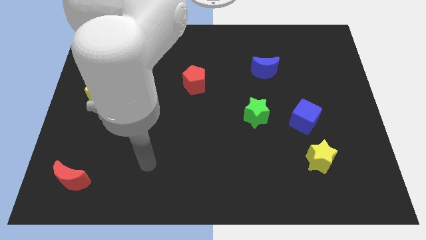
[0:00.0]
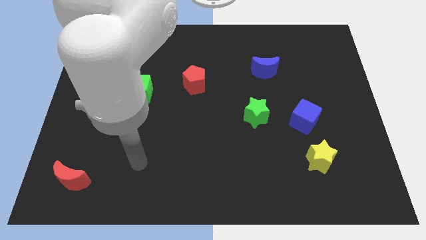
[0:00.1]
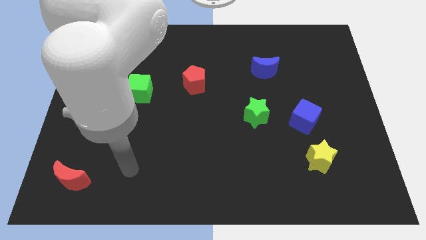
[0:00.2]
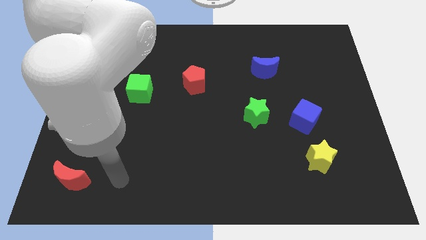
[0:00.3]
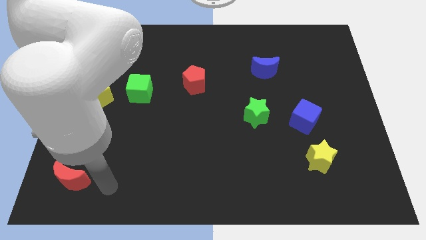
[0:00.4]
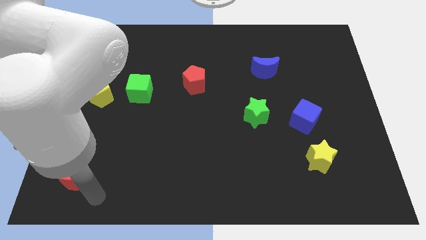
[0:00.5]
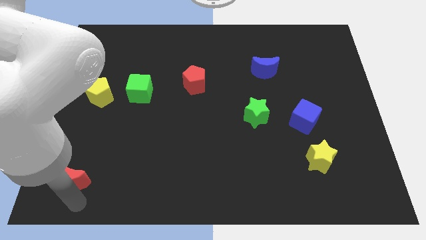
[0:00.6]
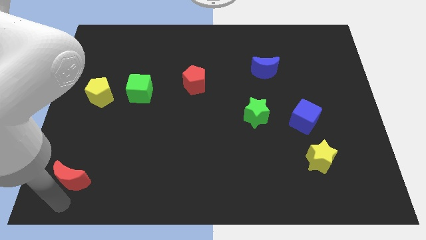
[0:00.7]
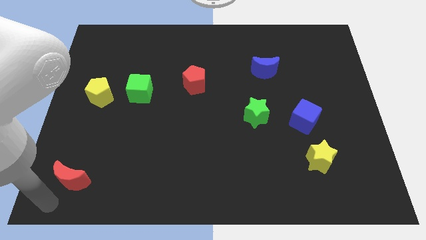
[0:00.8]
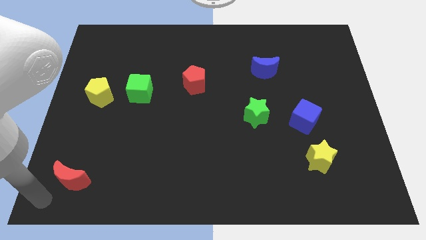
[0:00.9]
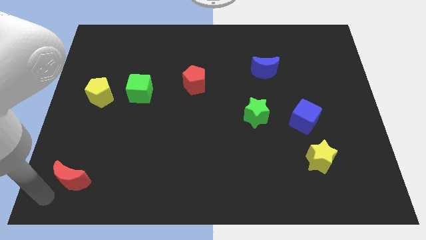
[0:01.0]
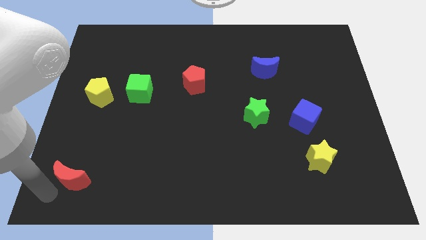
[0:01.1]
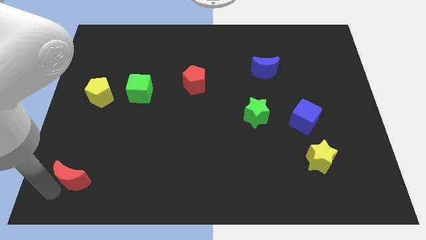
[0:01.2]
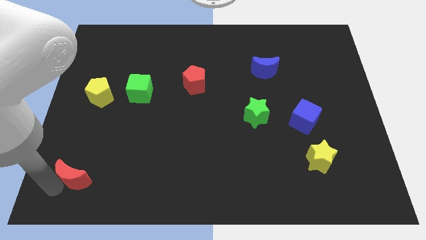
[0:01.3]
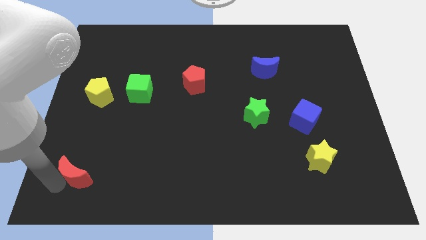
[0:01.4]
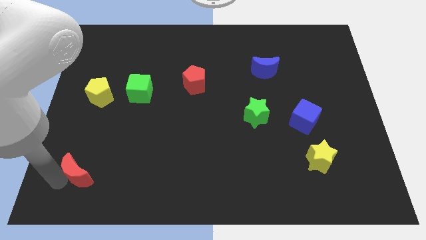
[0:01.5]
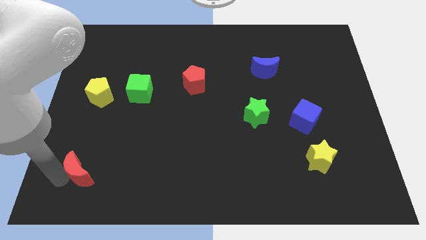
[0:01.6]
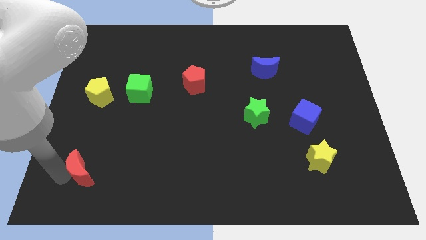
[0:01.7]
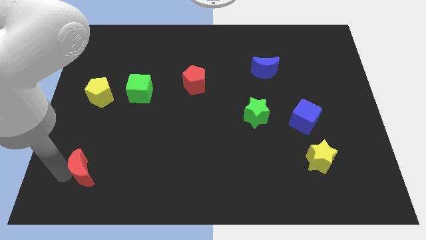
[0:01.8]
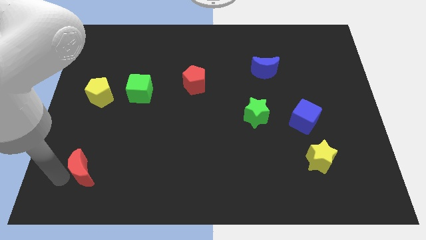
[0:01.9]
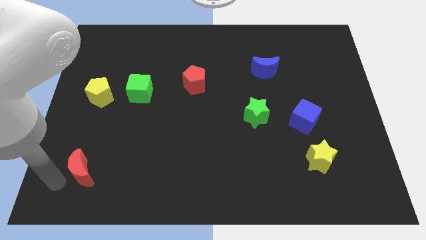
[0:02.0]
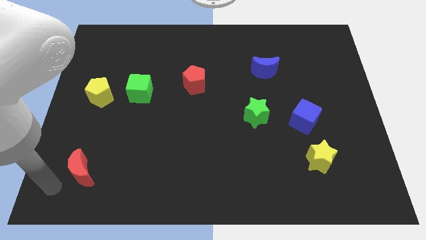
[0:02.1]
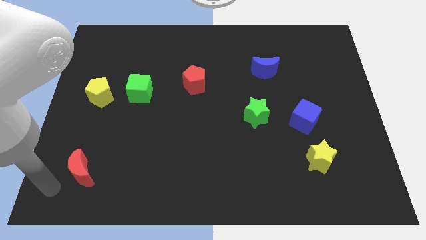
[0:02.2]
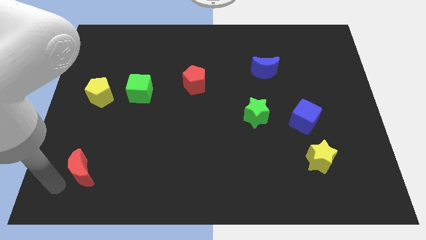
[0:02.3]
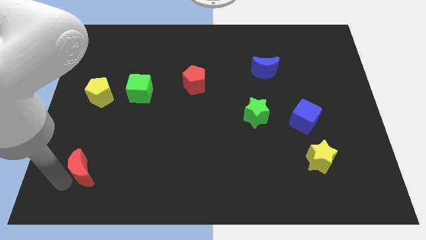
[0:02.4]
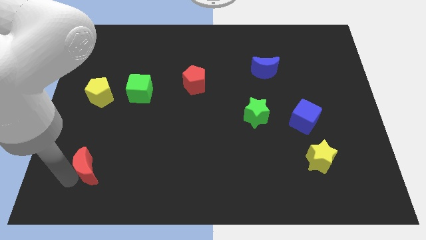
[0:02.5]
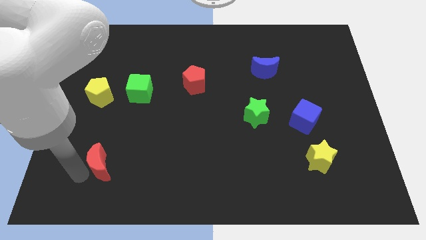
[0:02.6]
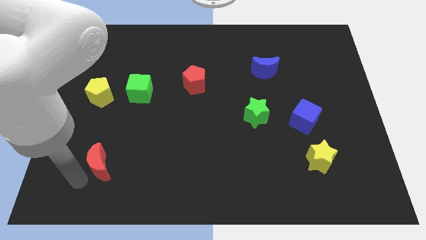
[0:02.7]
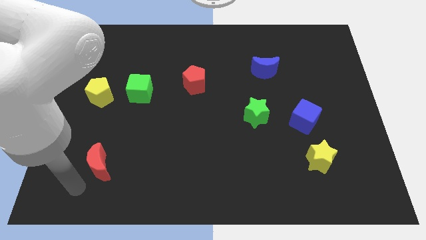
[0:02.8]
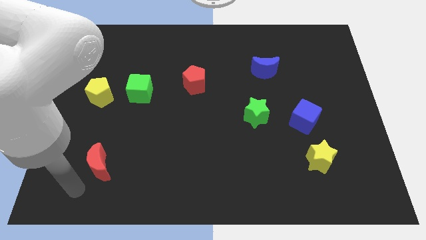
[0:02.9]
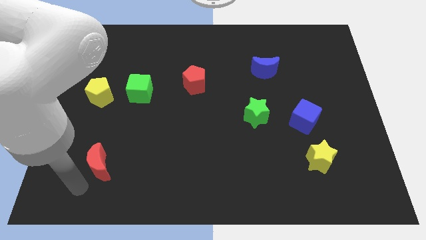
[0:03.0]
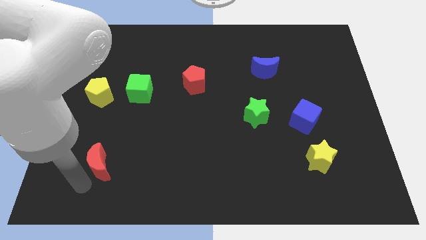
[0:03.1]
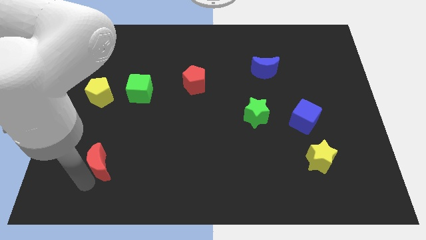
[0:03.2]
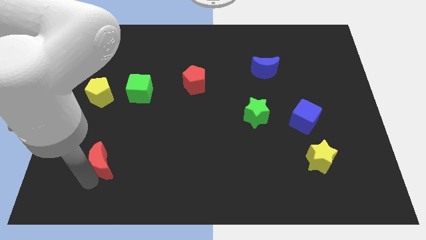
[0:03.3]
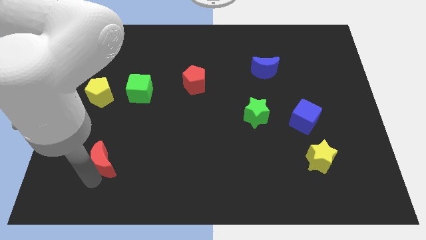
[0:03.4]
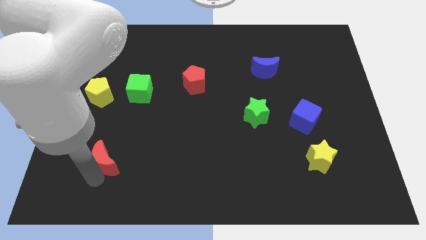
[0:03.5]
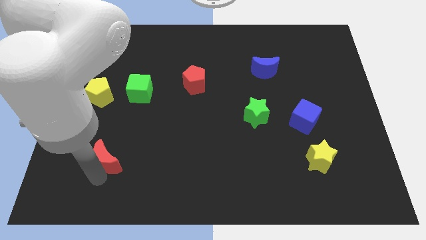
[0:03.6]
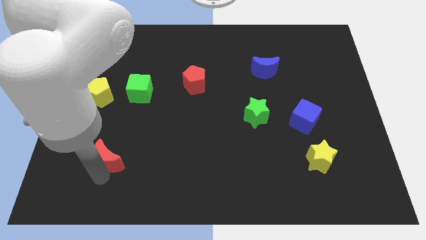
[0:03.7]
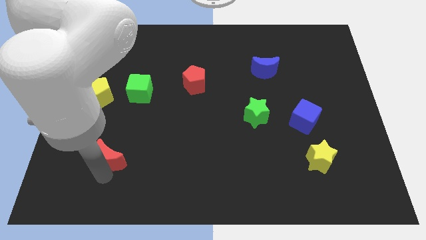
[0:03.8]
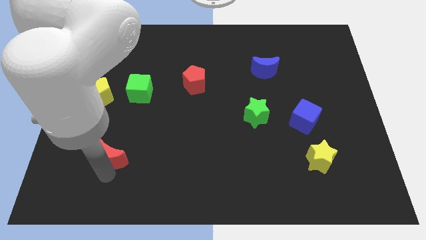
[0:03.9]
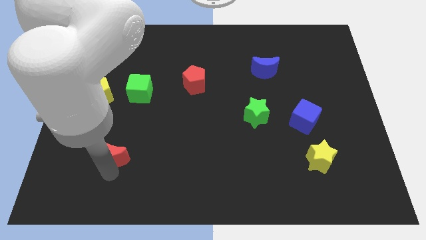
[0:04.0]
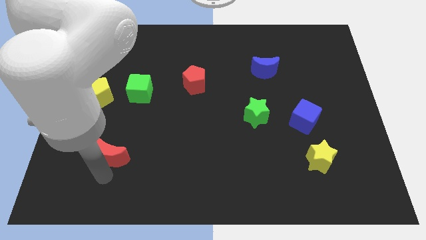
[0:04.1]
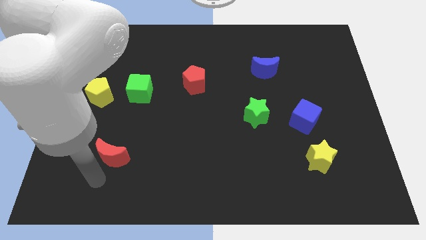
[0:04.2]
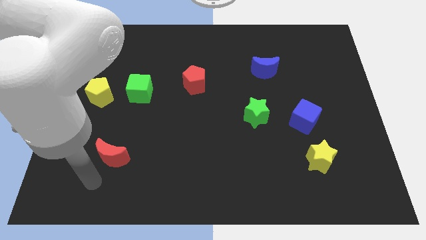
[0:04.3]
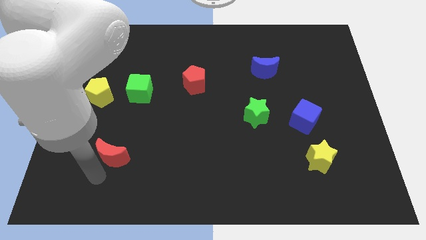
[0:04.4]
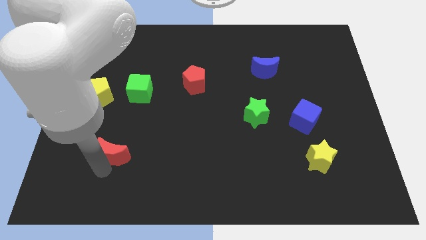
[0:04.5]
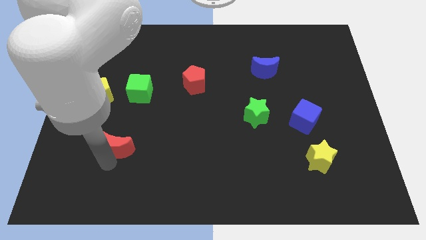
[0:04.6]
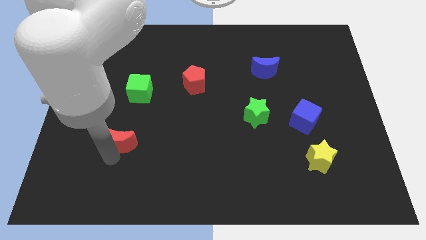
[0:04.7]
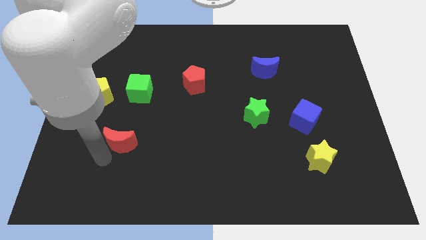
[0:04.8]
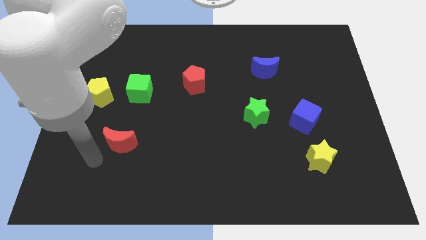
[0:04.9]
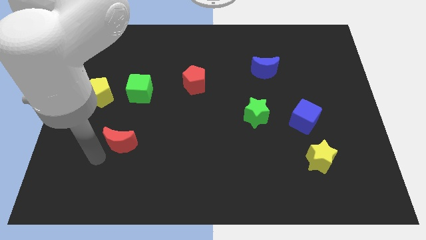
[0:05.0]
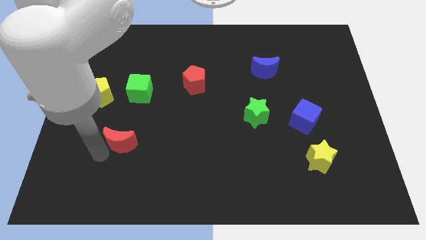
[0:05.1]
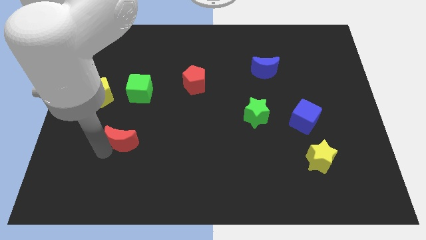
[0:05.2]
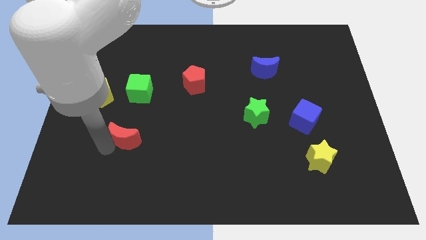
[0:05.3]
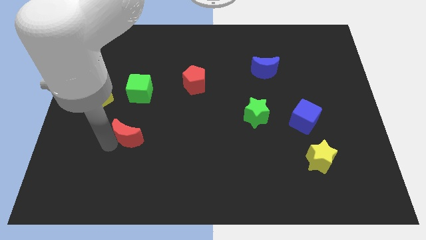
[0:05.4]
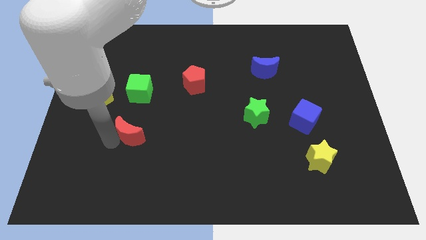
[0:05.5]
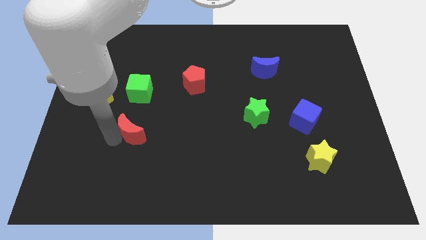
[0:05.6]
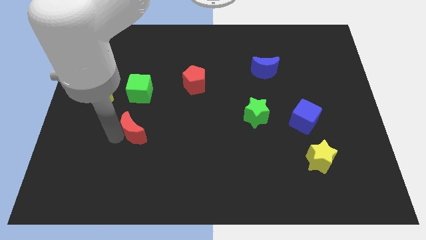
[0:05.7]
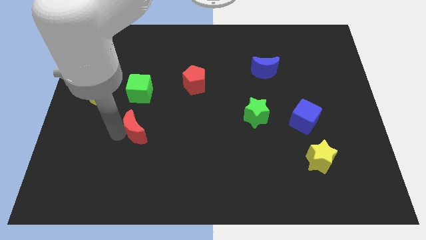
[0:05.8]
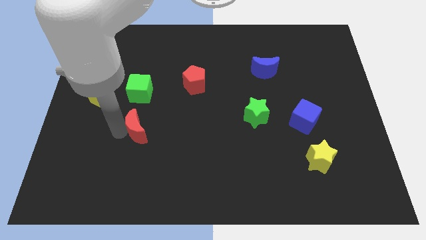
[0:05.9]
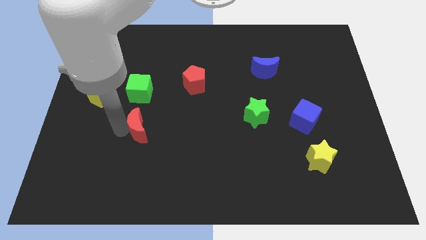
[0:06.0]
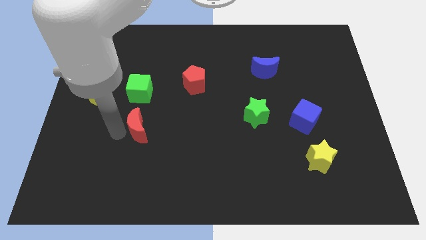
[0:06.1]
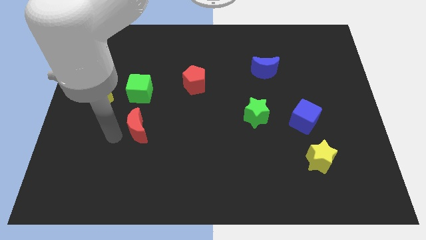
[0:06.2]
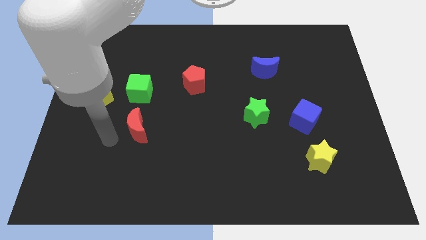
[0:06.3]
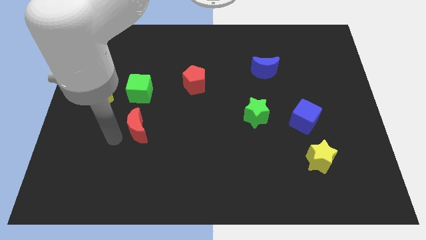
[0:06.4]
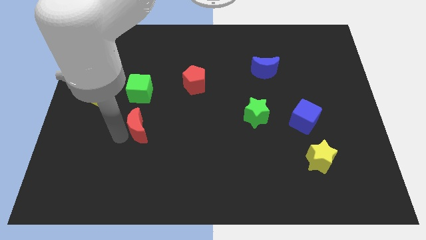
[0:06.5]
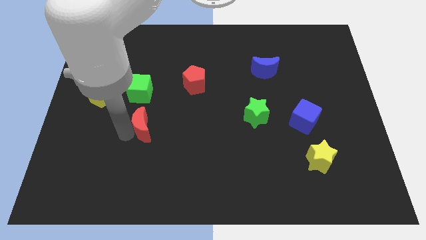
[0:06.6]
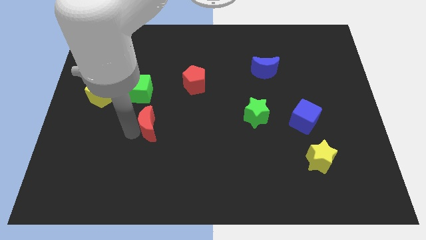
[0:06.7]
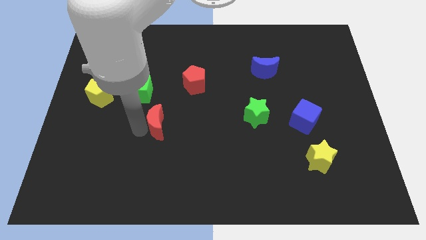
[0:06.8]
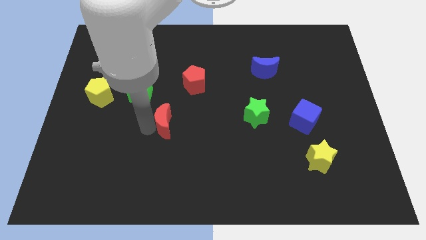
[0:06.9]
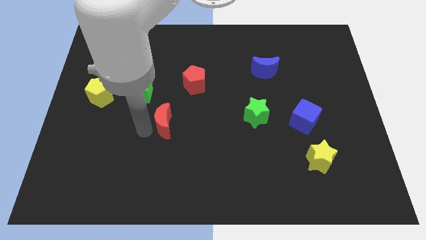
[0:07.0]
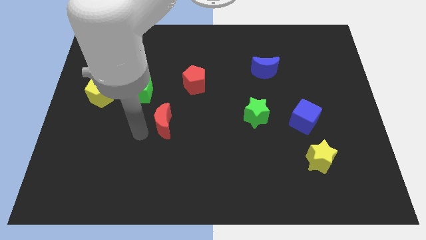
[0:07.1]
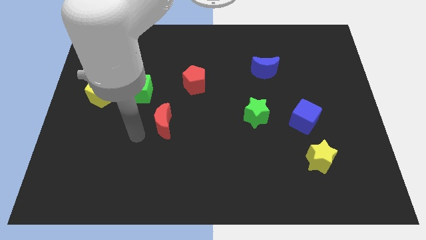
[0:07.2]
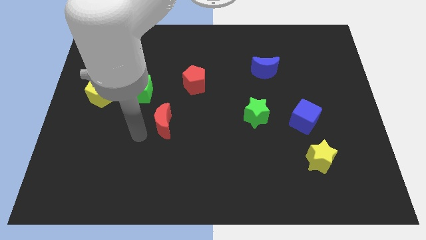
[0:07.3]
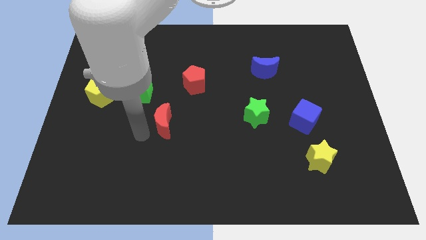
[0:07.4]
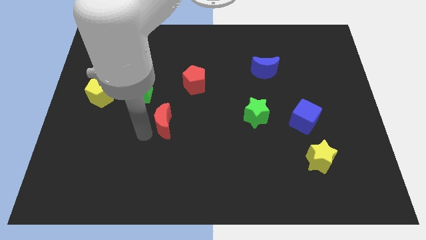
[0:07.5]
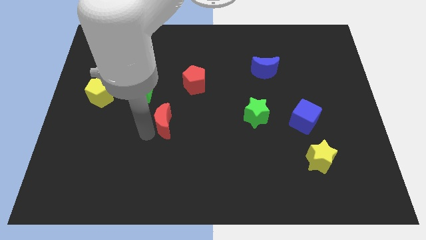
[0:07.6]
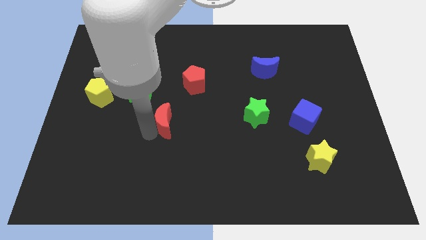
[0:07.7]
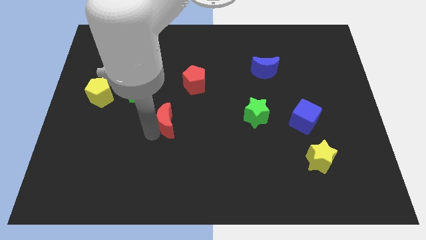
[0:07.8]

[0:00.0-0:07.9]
slide the red moon to the center of the board
